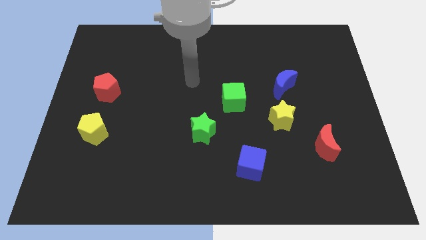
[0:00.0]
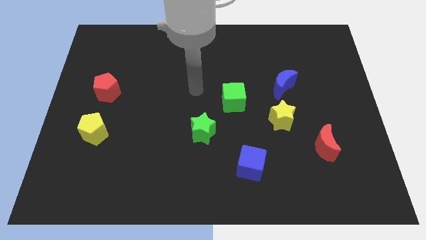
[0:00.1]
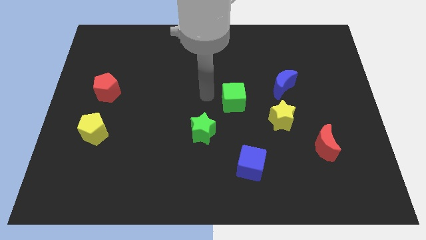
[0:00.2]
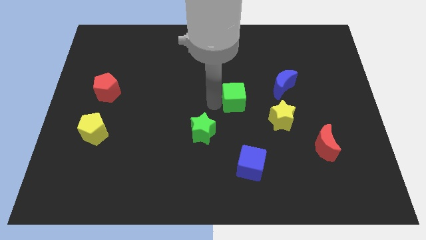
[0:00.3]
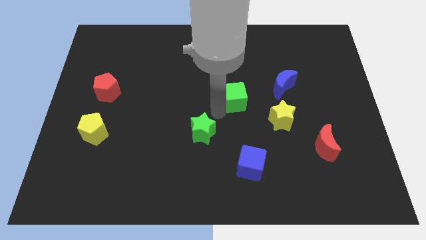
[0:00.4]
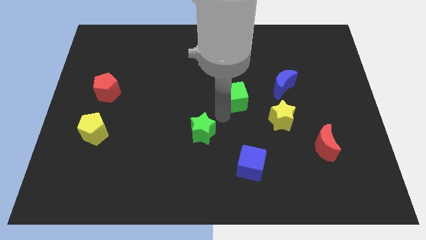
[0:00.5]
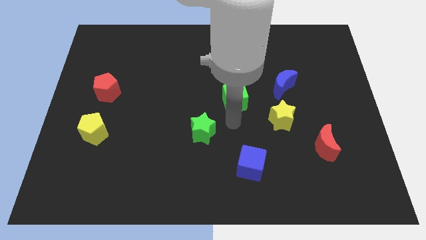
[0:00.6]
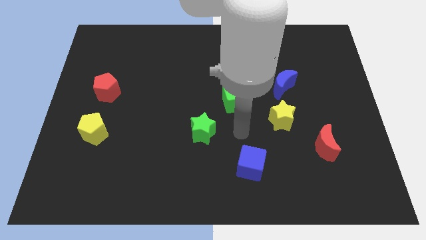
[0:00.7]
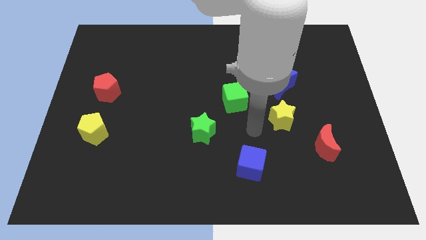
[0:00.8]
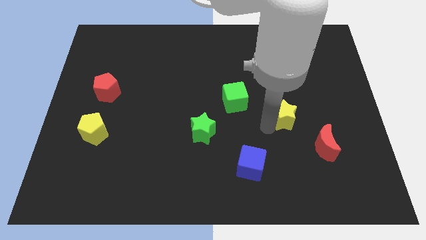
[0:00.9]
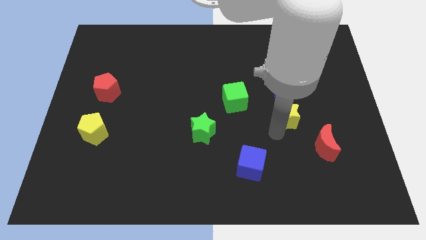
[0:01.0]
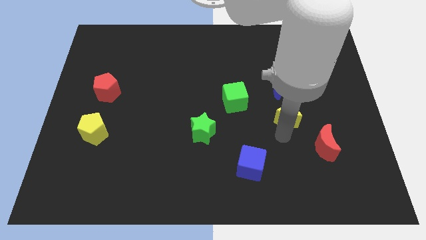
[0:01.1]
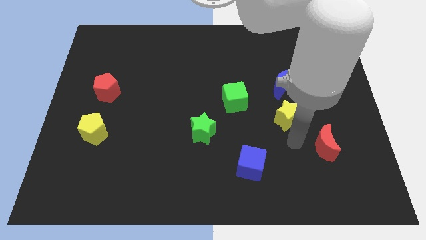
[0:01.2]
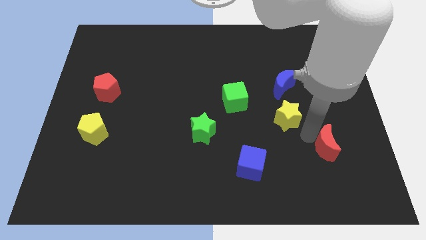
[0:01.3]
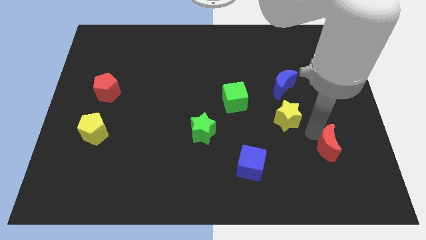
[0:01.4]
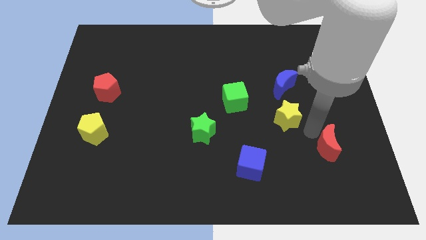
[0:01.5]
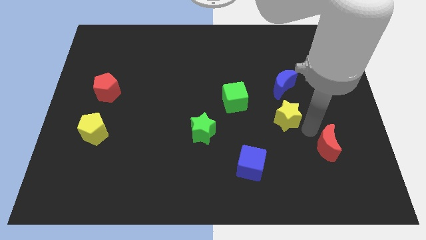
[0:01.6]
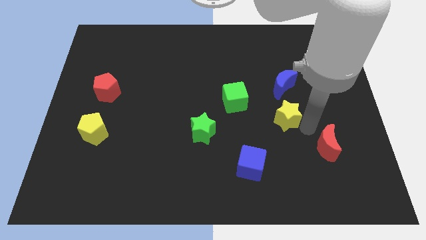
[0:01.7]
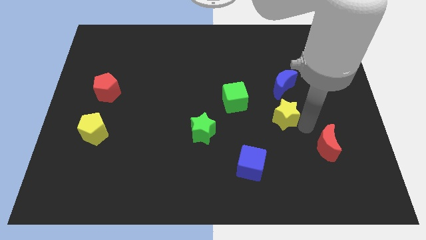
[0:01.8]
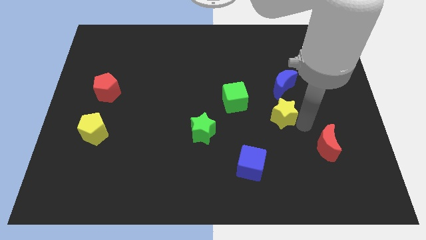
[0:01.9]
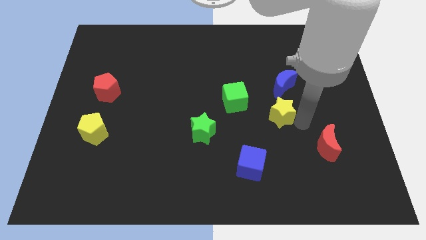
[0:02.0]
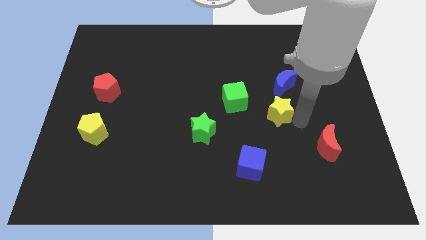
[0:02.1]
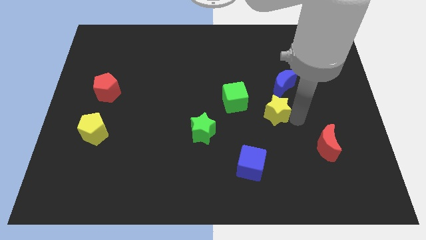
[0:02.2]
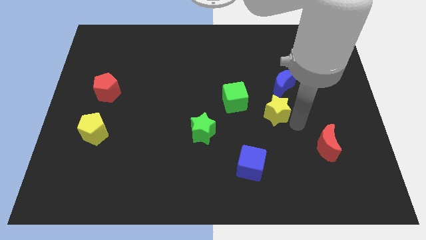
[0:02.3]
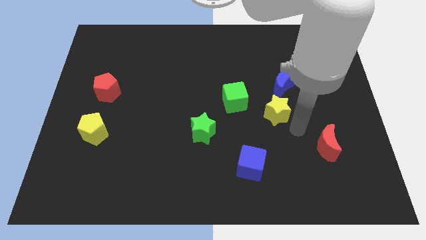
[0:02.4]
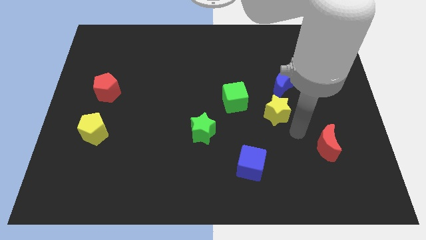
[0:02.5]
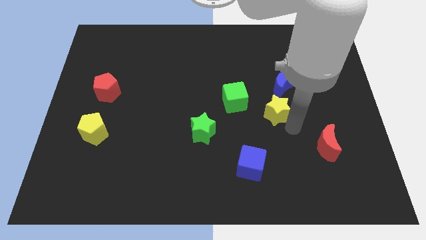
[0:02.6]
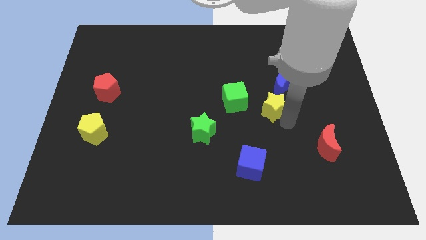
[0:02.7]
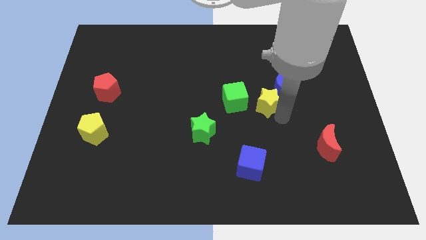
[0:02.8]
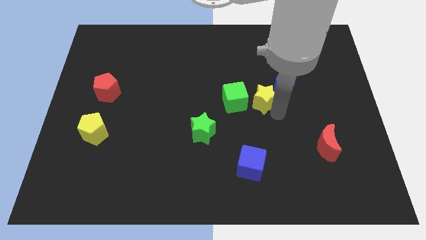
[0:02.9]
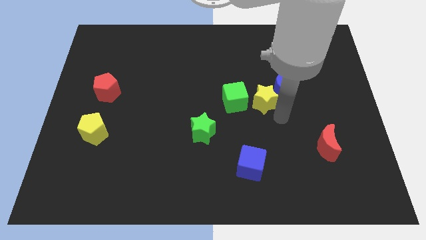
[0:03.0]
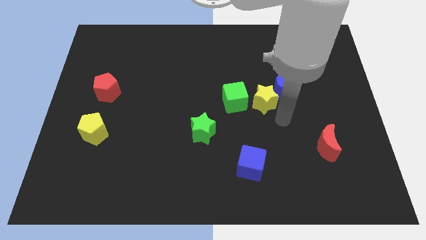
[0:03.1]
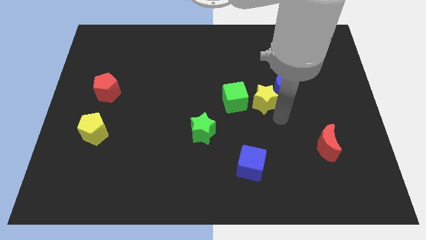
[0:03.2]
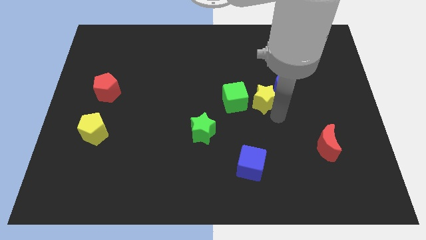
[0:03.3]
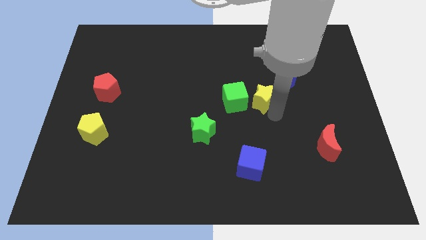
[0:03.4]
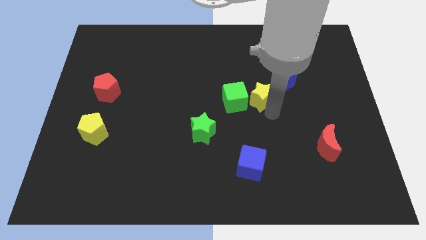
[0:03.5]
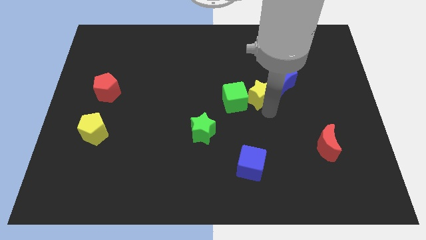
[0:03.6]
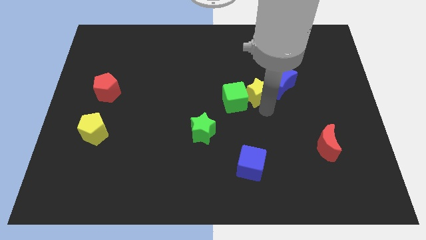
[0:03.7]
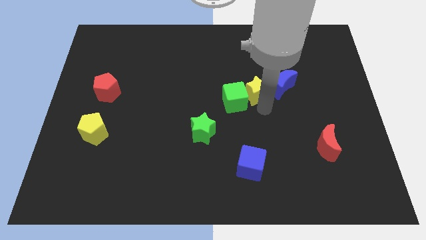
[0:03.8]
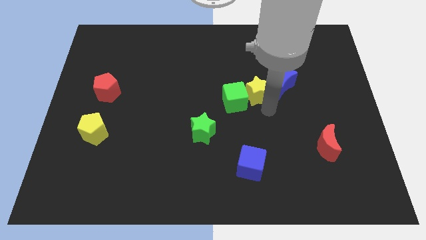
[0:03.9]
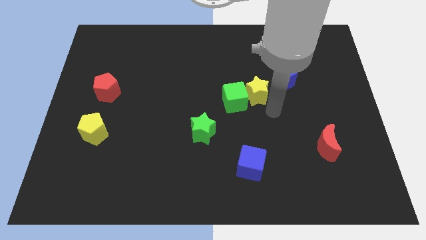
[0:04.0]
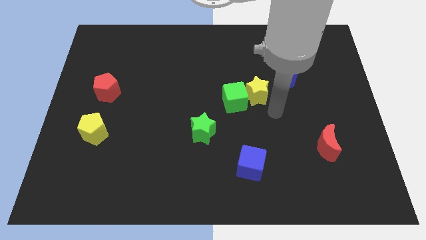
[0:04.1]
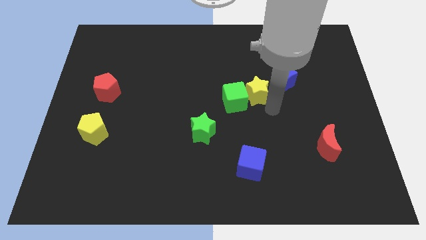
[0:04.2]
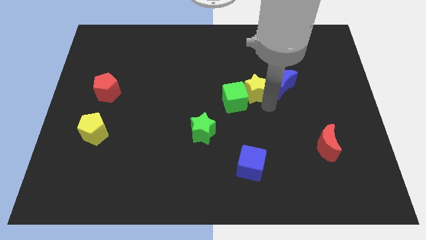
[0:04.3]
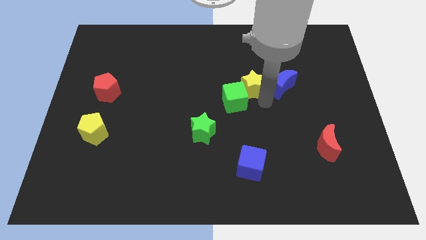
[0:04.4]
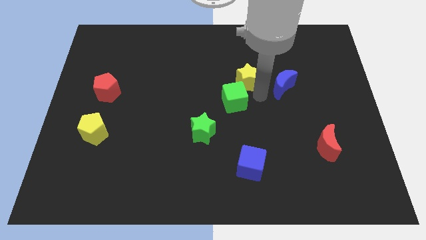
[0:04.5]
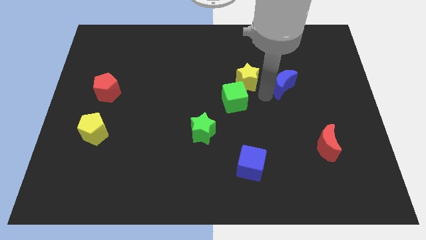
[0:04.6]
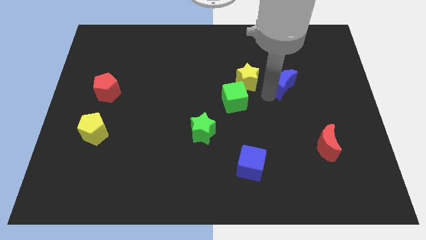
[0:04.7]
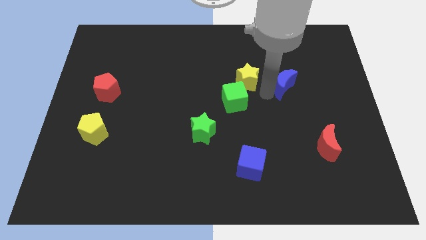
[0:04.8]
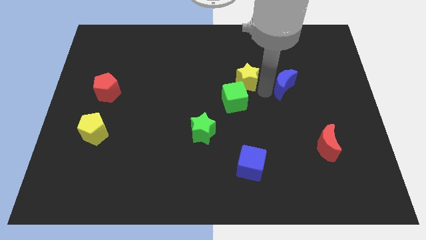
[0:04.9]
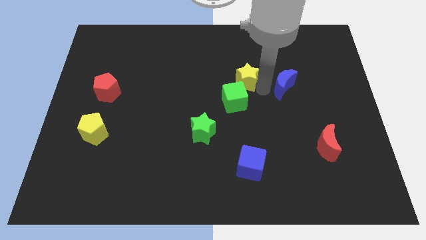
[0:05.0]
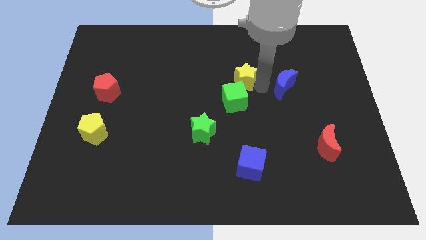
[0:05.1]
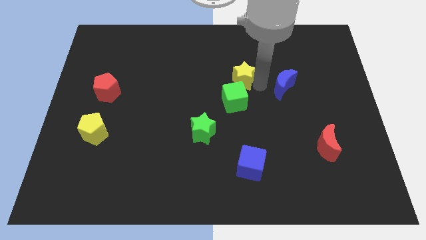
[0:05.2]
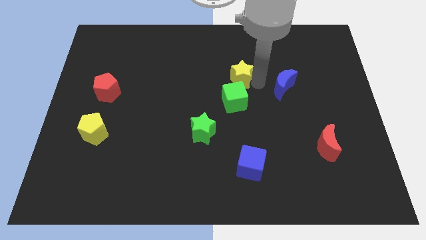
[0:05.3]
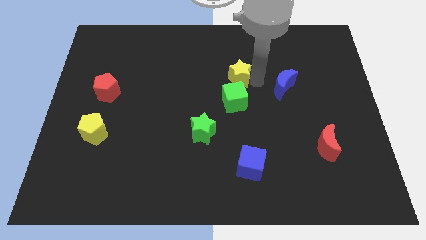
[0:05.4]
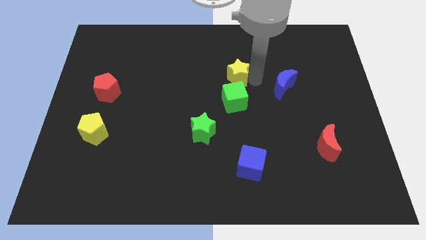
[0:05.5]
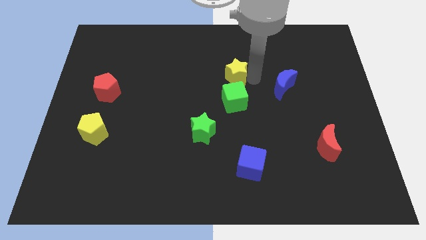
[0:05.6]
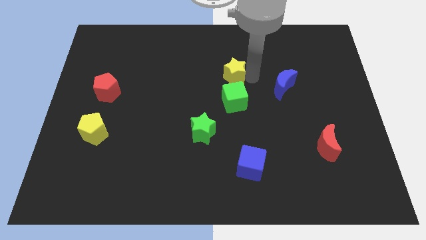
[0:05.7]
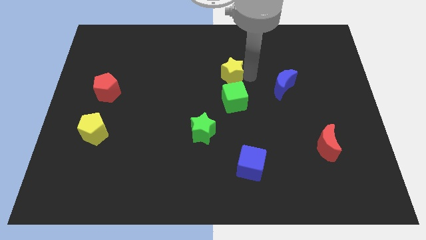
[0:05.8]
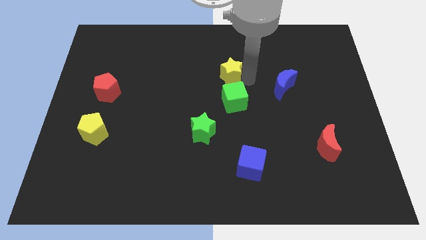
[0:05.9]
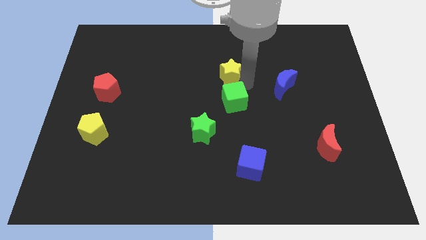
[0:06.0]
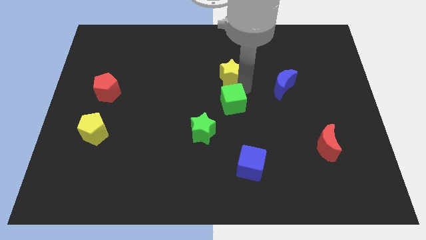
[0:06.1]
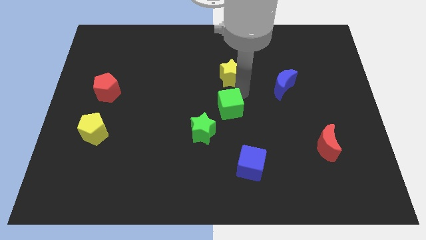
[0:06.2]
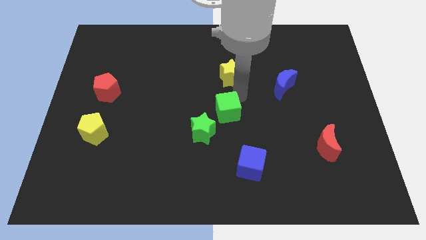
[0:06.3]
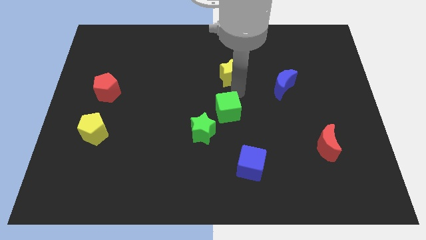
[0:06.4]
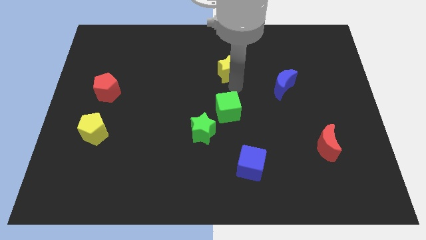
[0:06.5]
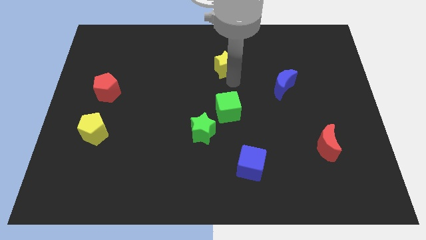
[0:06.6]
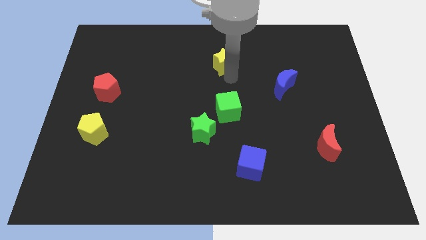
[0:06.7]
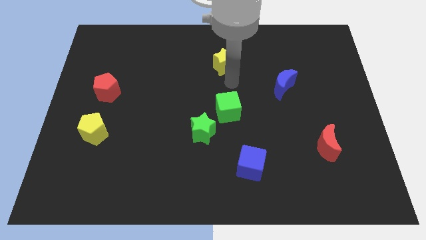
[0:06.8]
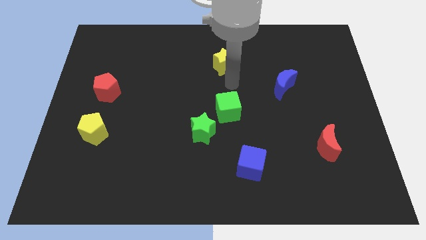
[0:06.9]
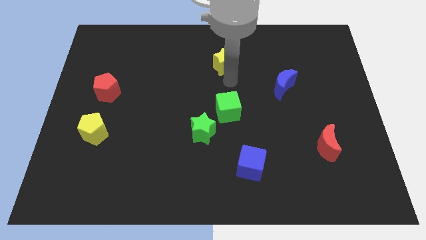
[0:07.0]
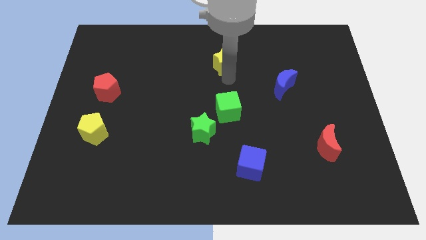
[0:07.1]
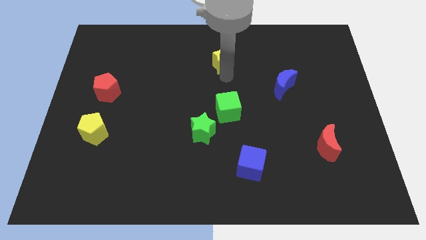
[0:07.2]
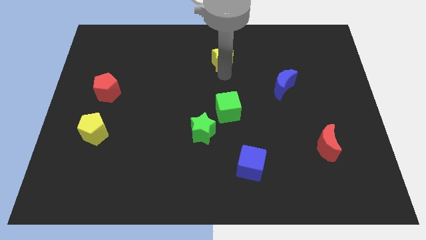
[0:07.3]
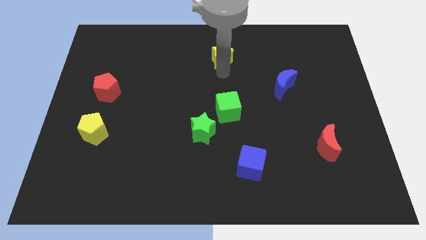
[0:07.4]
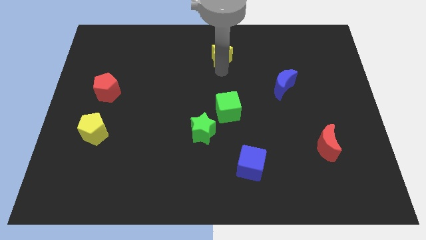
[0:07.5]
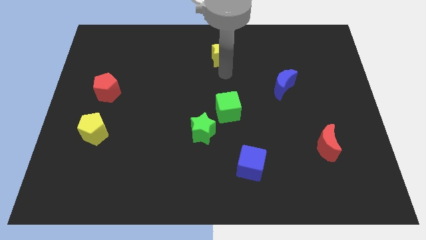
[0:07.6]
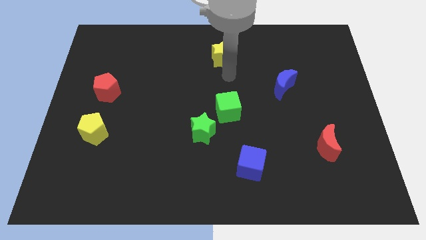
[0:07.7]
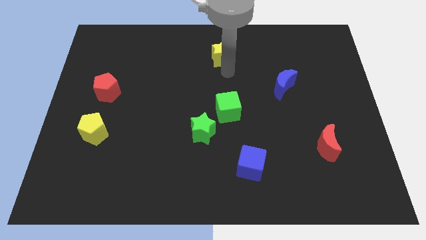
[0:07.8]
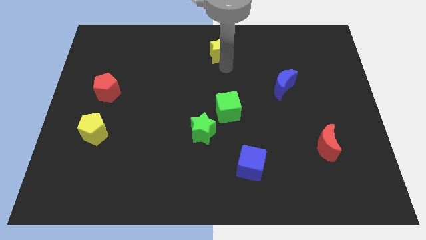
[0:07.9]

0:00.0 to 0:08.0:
push the yellow star to the top side
